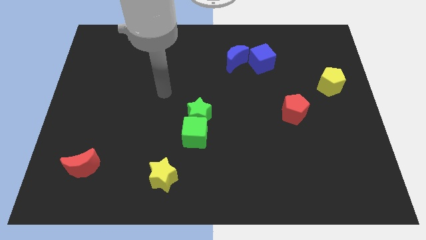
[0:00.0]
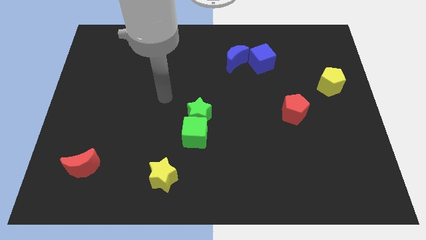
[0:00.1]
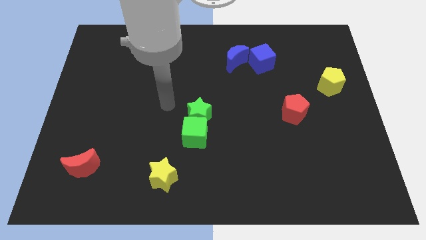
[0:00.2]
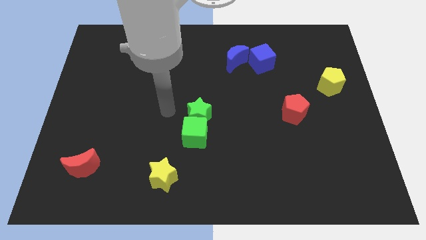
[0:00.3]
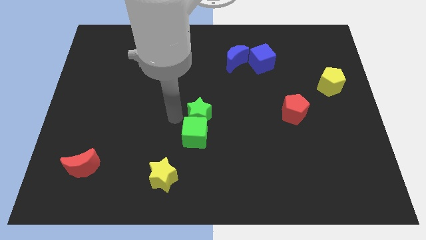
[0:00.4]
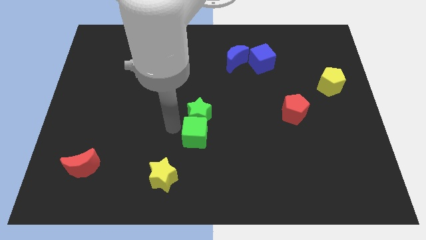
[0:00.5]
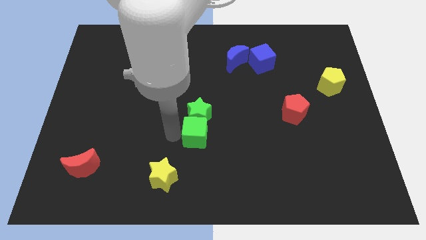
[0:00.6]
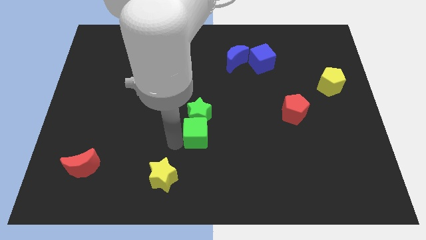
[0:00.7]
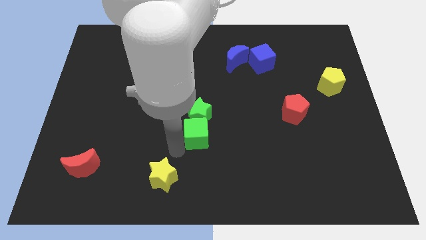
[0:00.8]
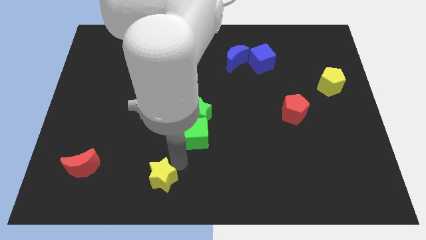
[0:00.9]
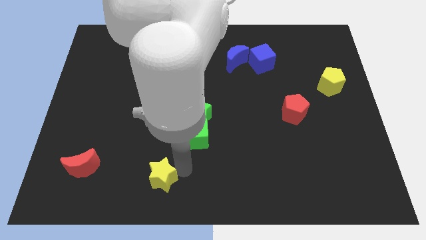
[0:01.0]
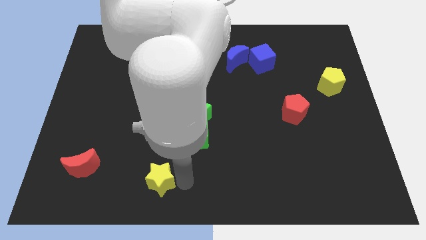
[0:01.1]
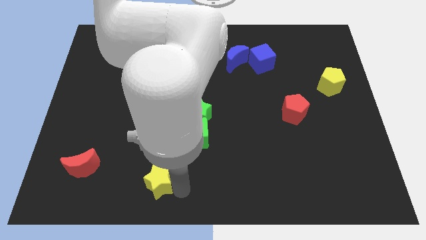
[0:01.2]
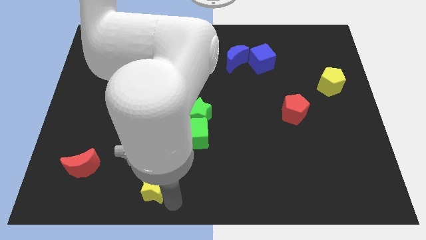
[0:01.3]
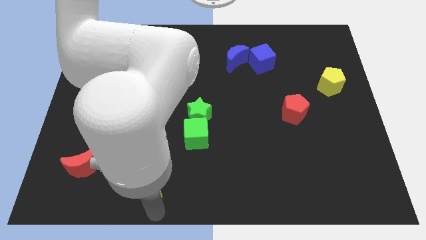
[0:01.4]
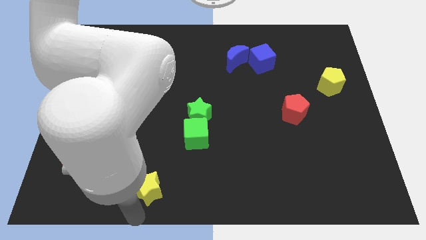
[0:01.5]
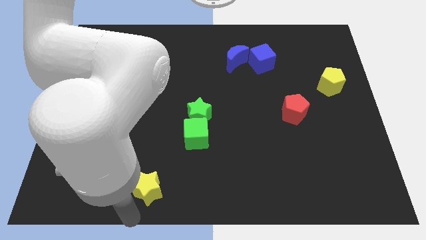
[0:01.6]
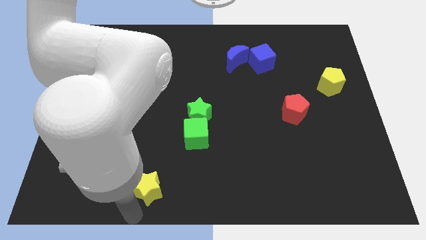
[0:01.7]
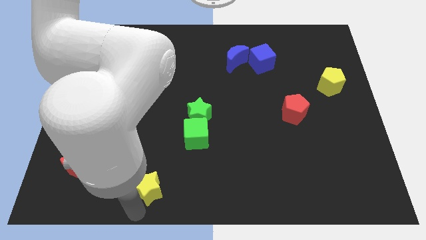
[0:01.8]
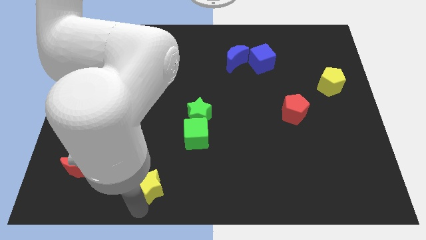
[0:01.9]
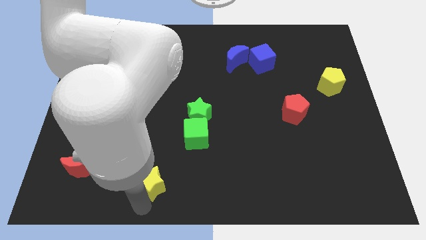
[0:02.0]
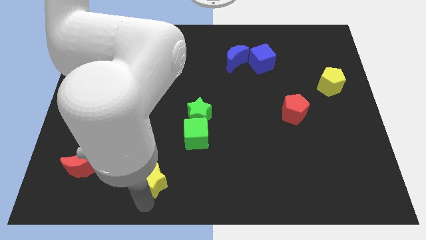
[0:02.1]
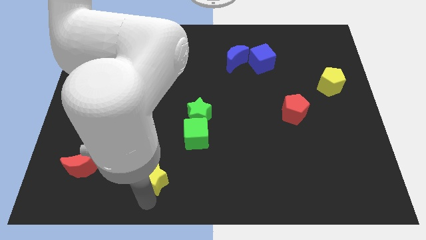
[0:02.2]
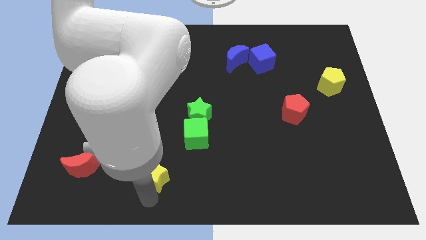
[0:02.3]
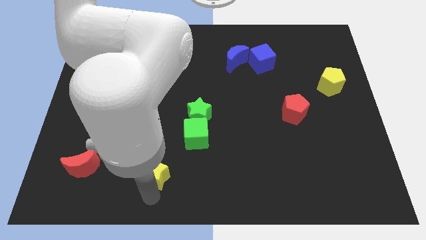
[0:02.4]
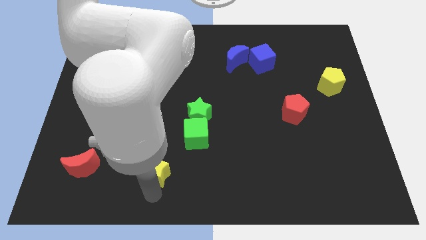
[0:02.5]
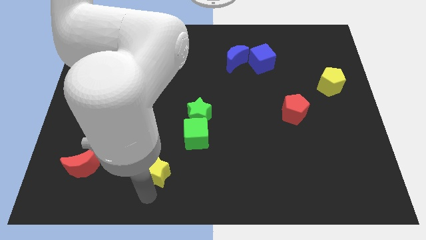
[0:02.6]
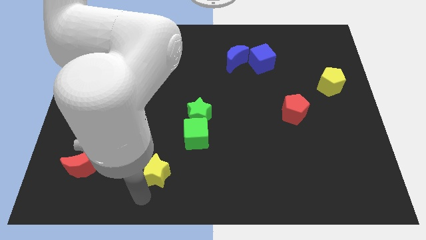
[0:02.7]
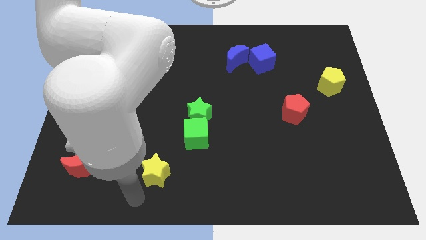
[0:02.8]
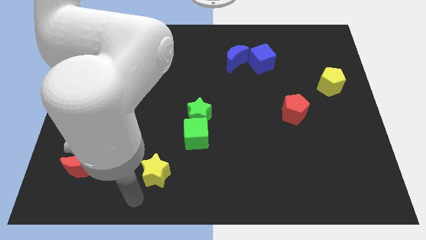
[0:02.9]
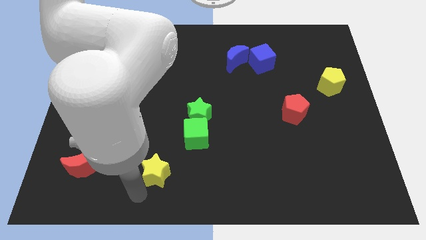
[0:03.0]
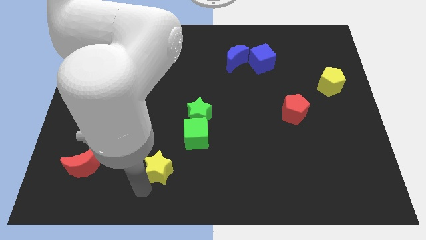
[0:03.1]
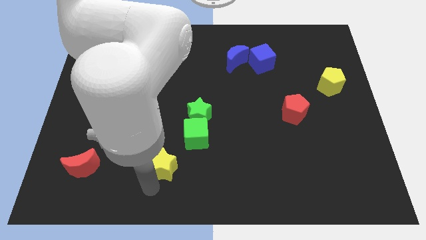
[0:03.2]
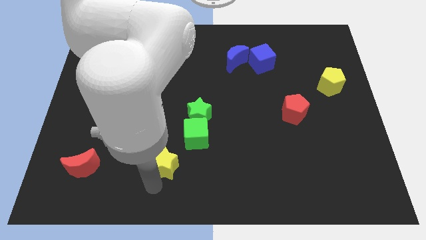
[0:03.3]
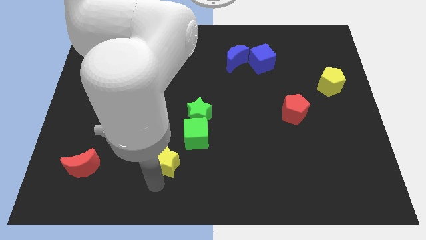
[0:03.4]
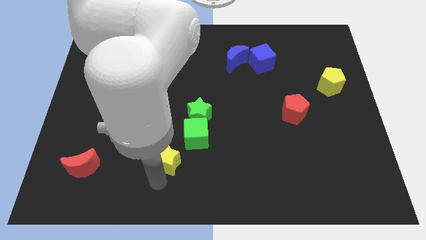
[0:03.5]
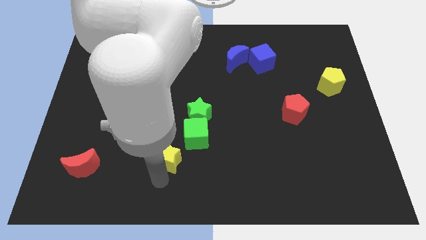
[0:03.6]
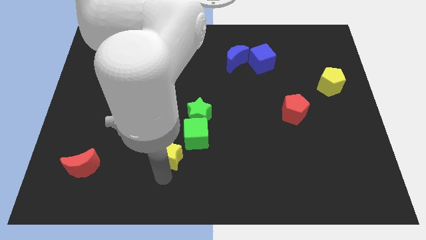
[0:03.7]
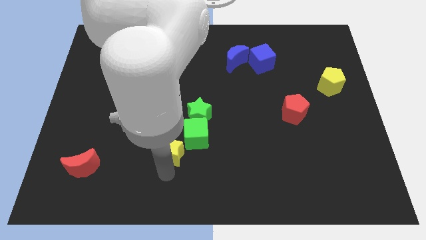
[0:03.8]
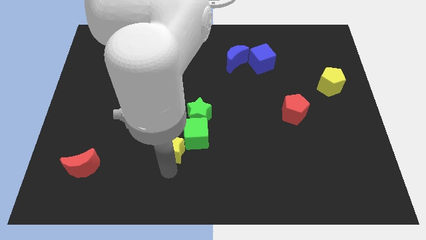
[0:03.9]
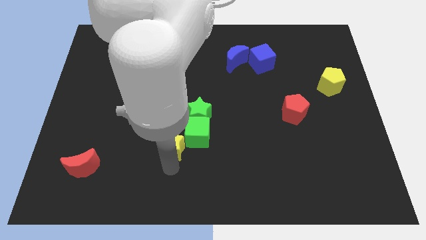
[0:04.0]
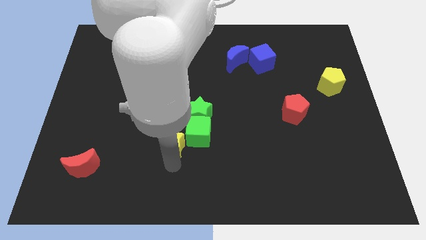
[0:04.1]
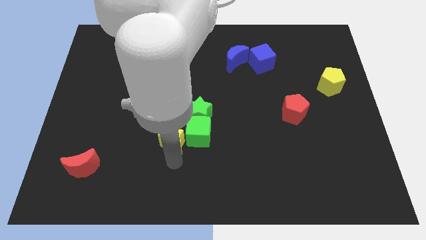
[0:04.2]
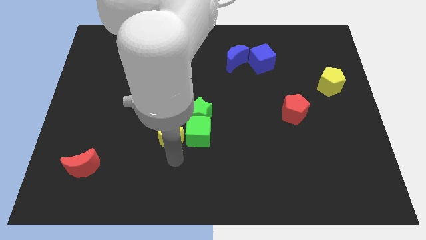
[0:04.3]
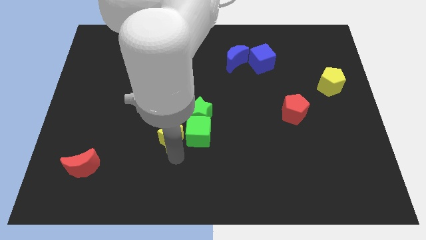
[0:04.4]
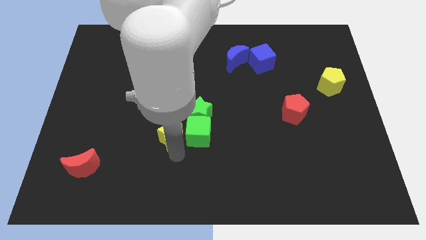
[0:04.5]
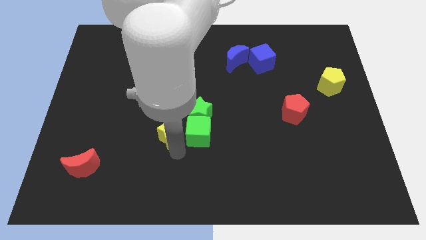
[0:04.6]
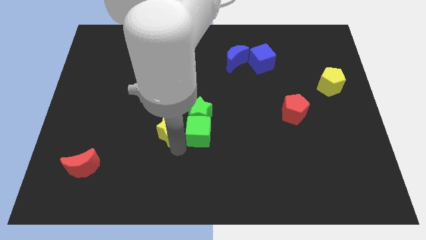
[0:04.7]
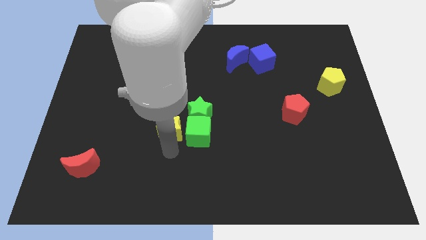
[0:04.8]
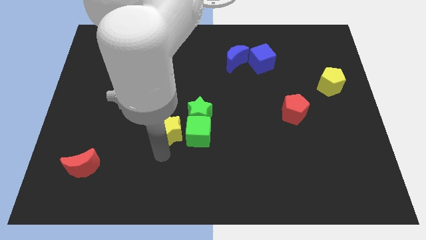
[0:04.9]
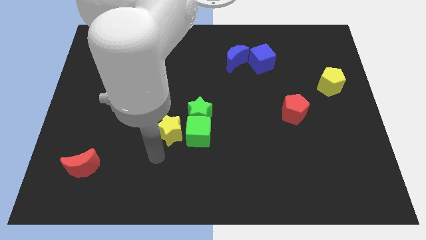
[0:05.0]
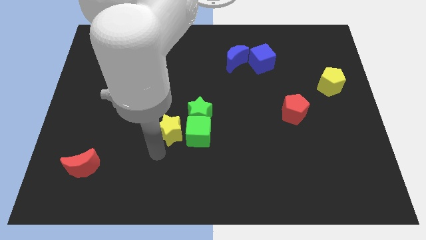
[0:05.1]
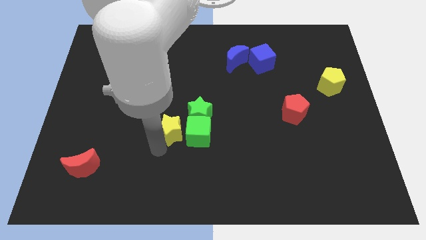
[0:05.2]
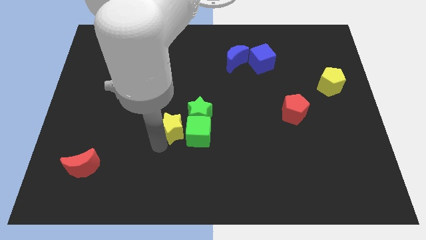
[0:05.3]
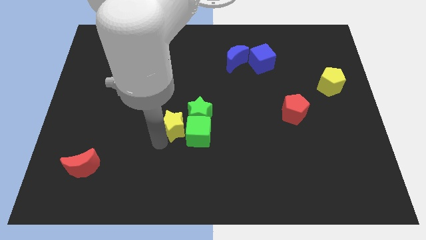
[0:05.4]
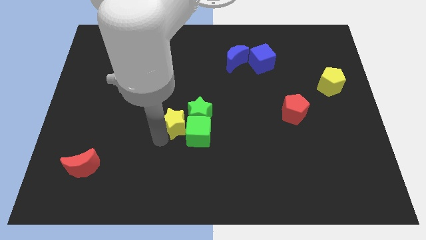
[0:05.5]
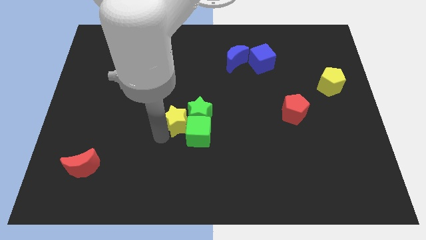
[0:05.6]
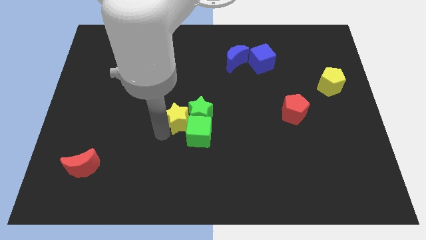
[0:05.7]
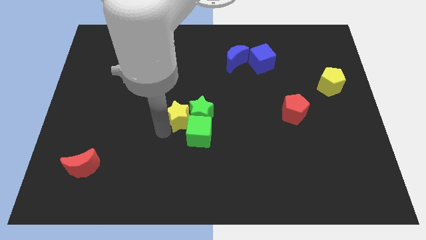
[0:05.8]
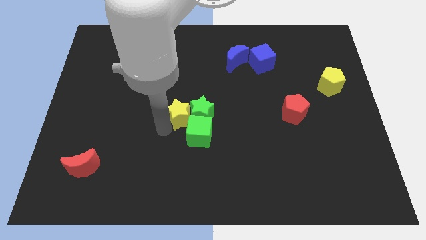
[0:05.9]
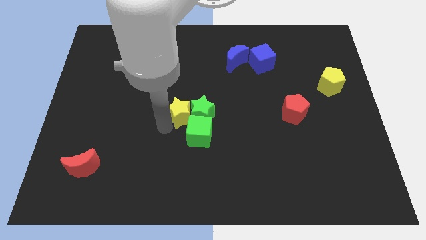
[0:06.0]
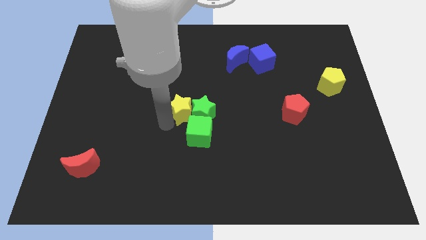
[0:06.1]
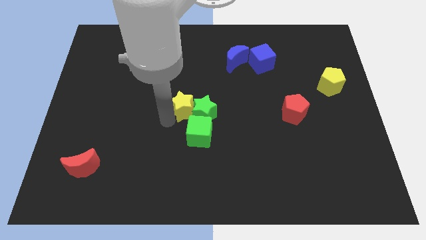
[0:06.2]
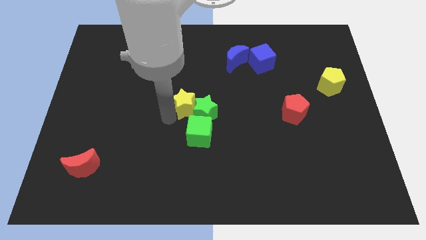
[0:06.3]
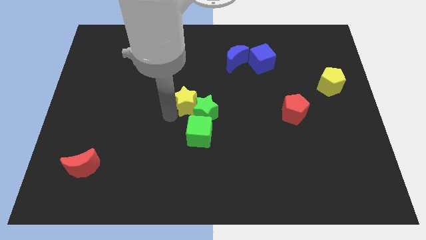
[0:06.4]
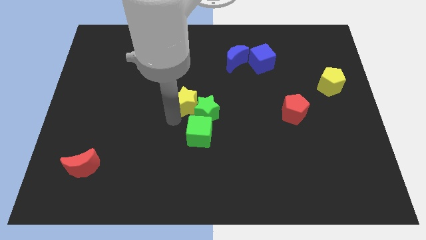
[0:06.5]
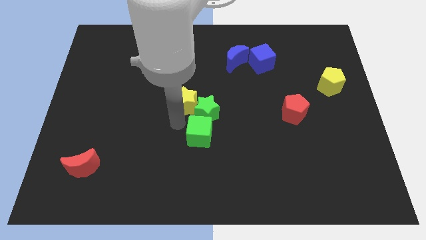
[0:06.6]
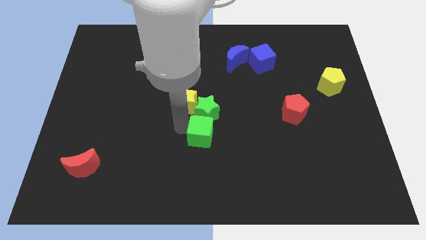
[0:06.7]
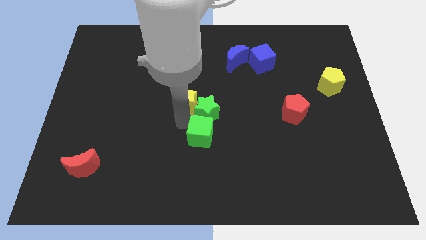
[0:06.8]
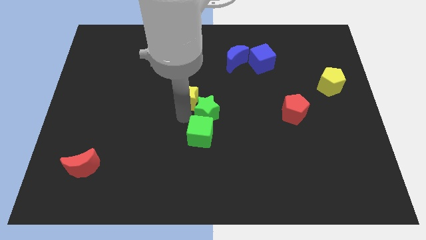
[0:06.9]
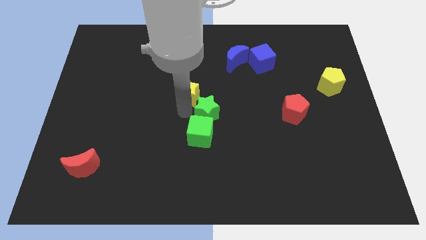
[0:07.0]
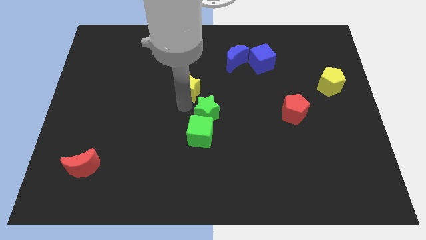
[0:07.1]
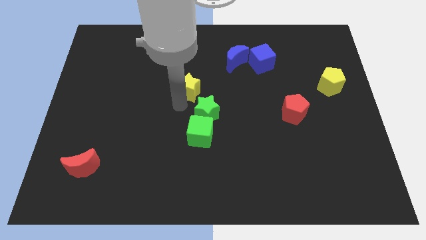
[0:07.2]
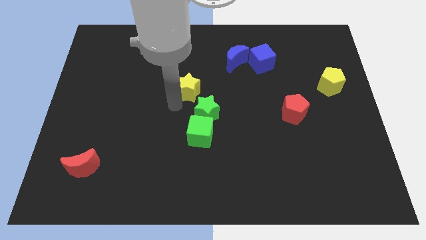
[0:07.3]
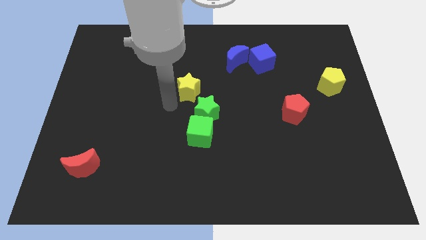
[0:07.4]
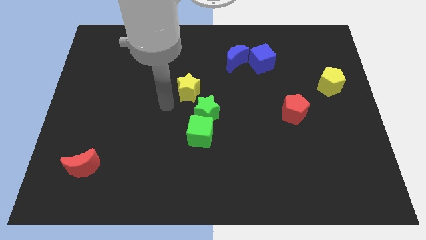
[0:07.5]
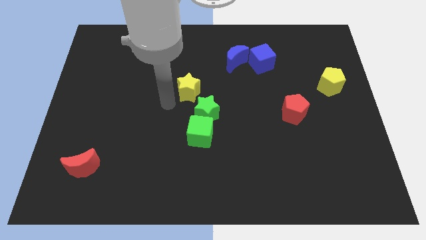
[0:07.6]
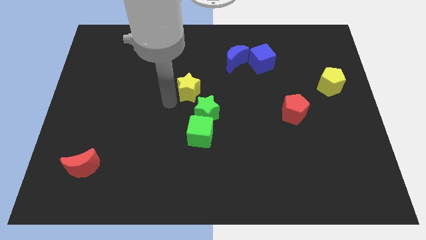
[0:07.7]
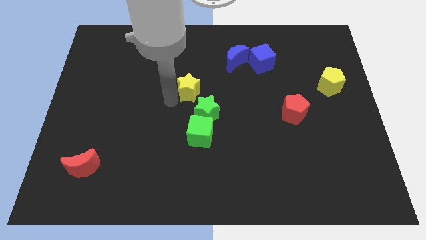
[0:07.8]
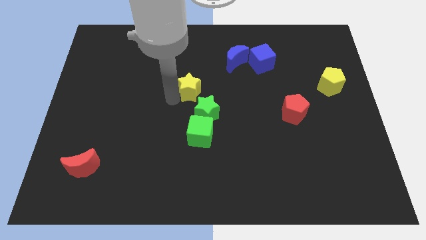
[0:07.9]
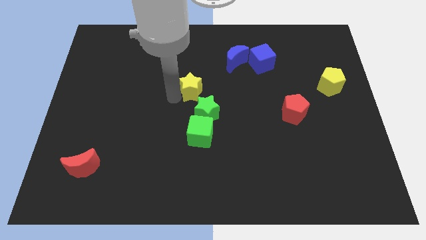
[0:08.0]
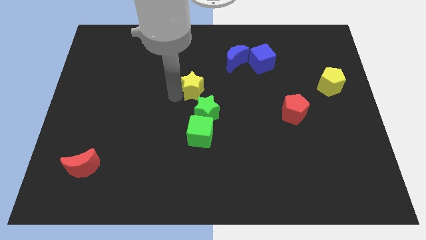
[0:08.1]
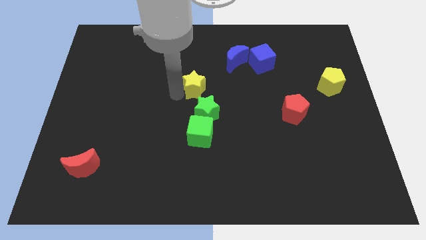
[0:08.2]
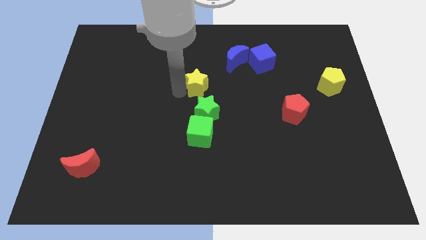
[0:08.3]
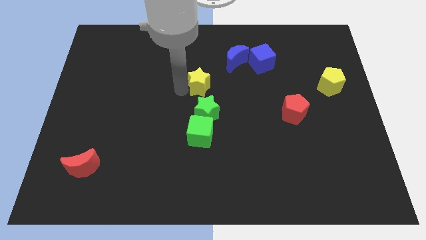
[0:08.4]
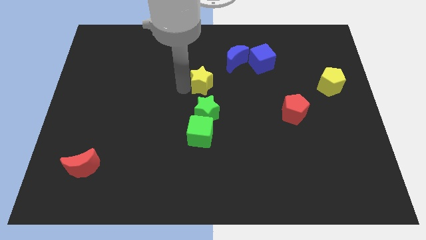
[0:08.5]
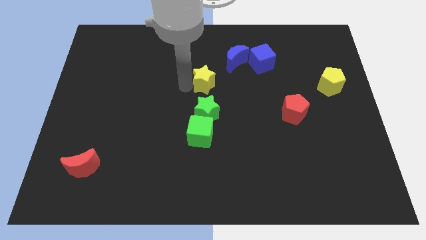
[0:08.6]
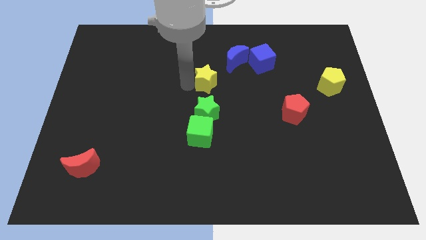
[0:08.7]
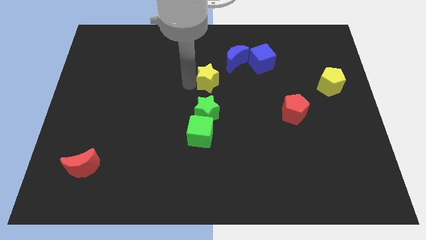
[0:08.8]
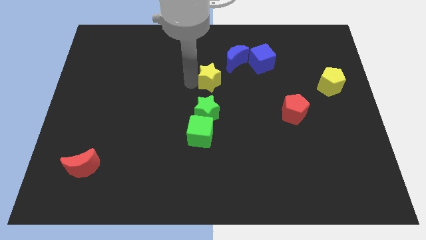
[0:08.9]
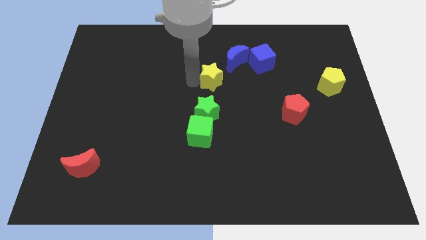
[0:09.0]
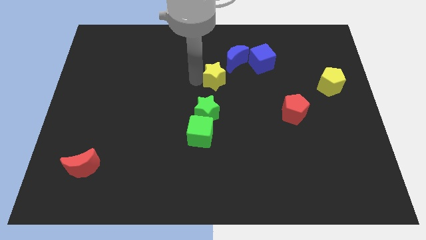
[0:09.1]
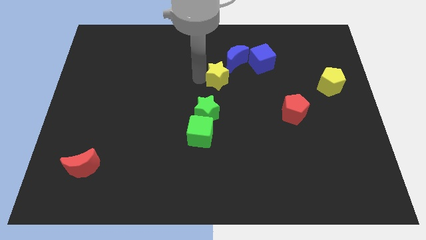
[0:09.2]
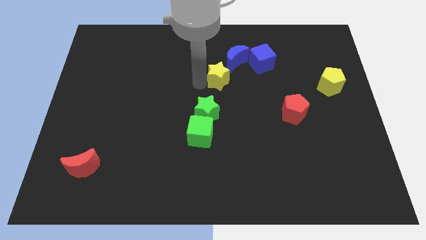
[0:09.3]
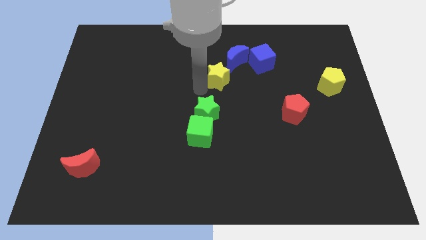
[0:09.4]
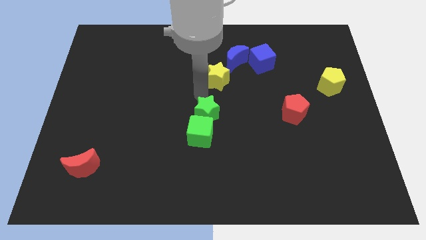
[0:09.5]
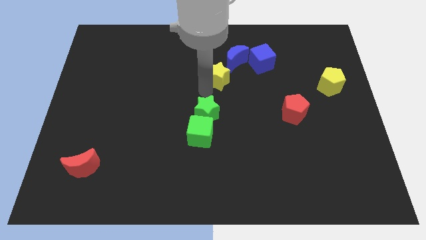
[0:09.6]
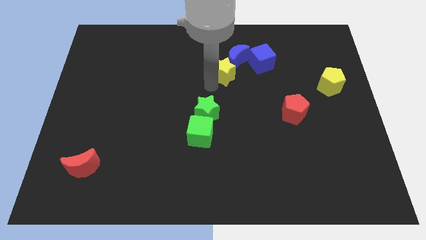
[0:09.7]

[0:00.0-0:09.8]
slide the yellow star to the blue moon
